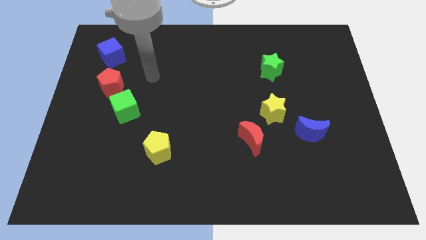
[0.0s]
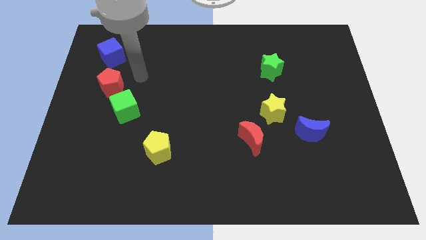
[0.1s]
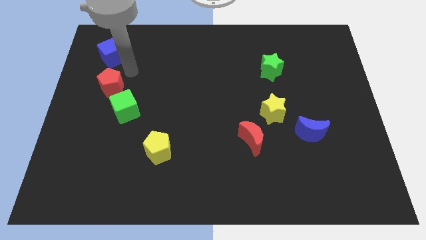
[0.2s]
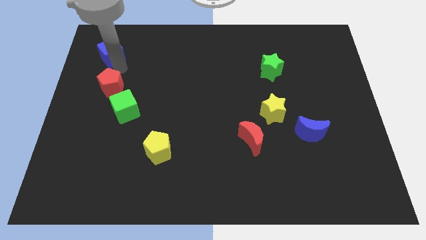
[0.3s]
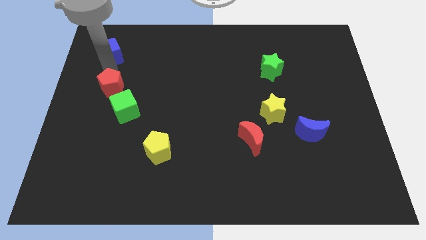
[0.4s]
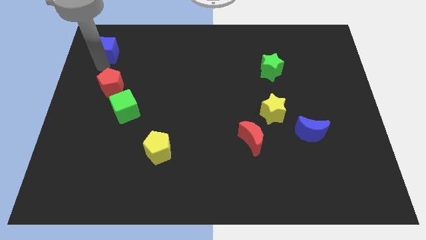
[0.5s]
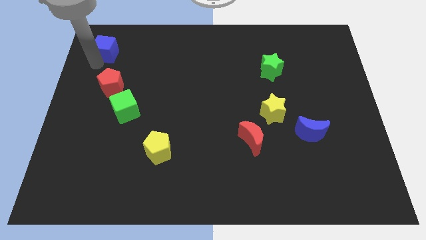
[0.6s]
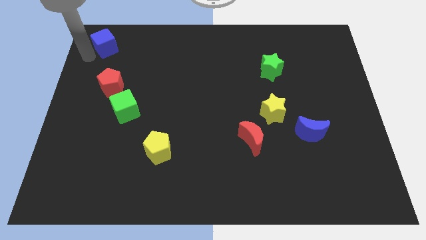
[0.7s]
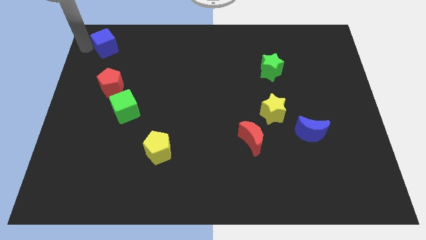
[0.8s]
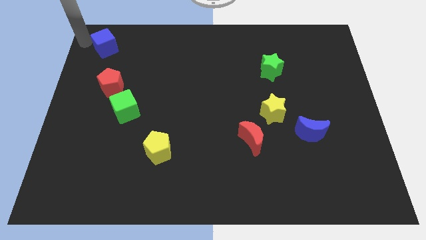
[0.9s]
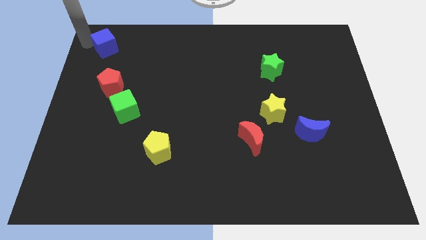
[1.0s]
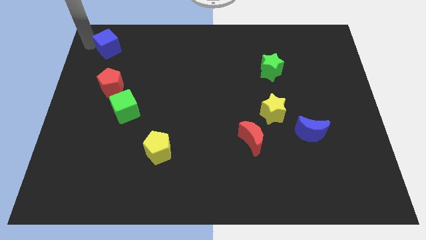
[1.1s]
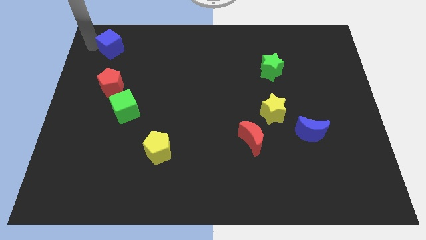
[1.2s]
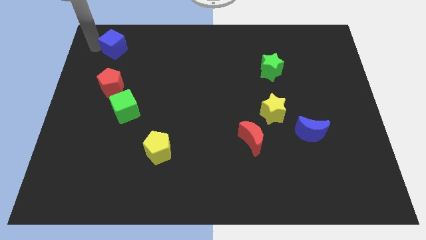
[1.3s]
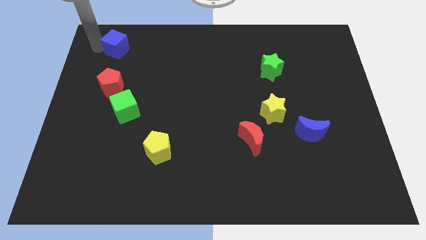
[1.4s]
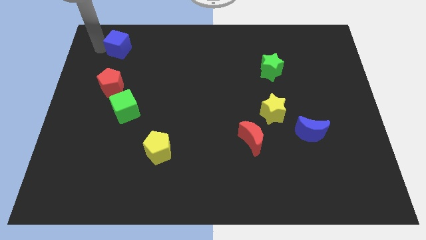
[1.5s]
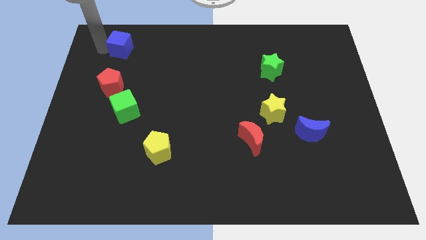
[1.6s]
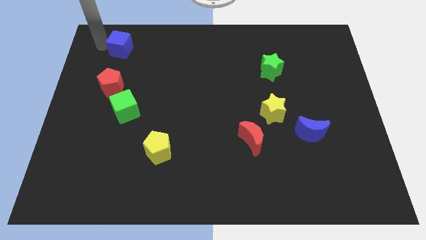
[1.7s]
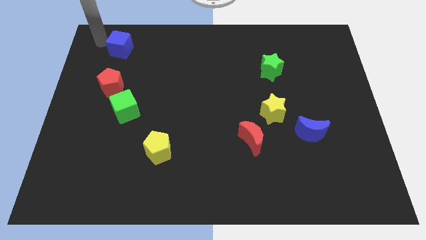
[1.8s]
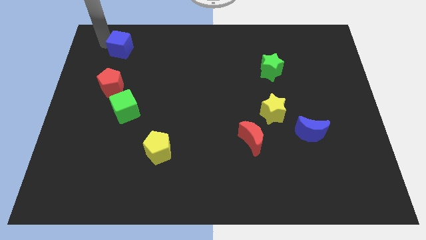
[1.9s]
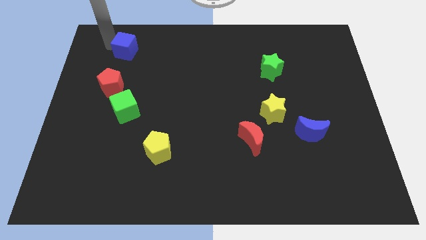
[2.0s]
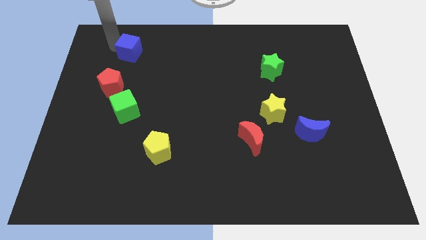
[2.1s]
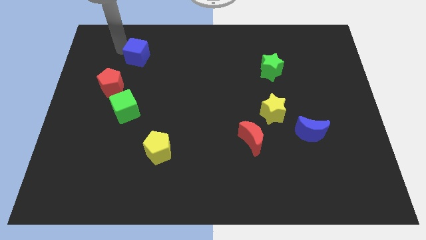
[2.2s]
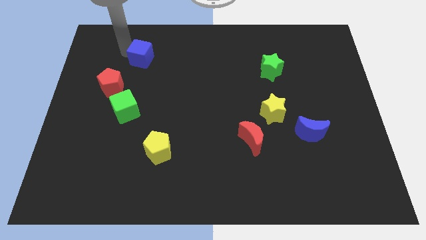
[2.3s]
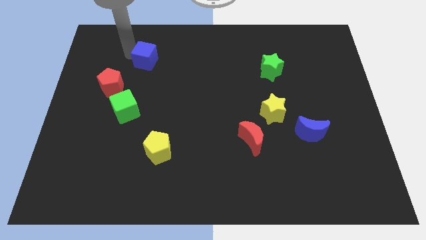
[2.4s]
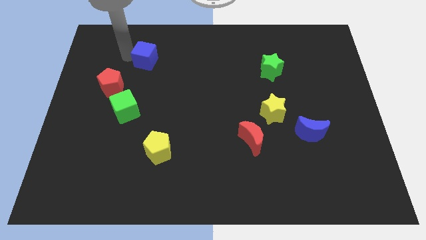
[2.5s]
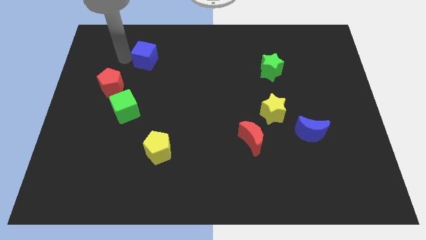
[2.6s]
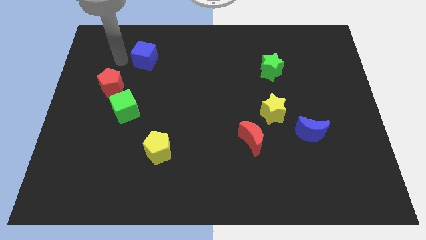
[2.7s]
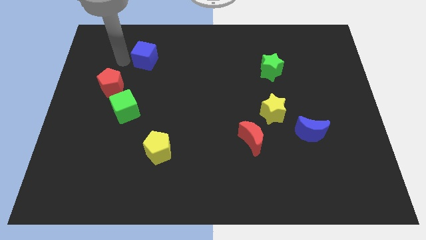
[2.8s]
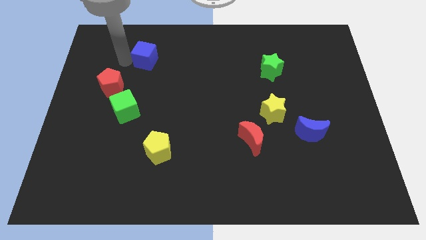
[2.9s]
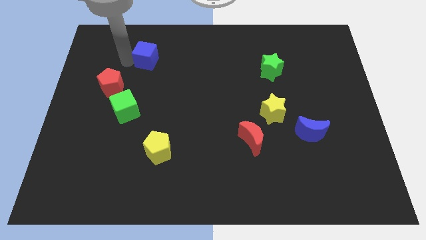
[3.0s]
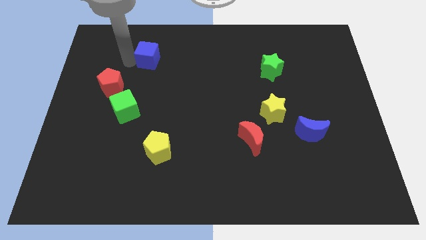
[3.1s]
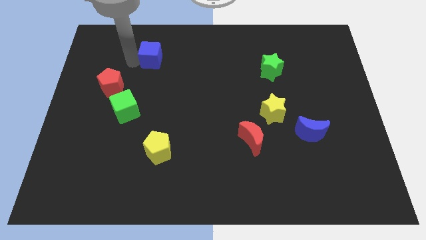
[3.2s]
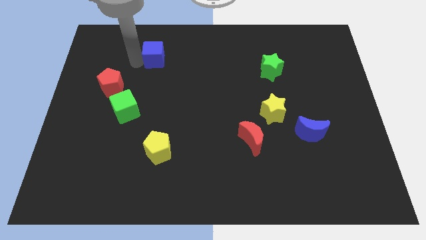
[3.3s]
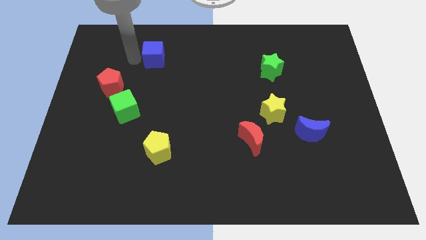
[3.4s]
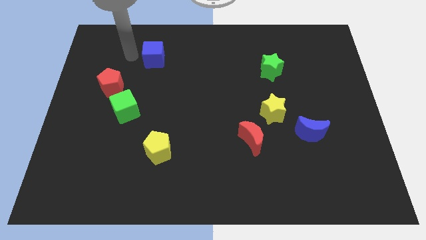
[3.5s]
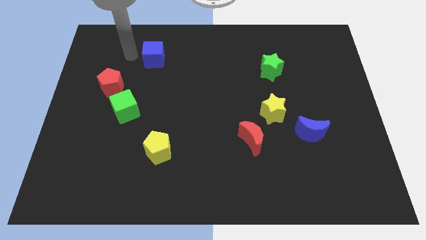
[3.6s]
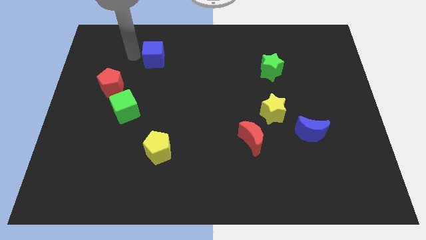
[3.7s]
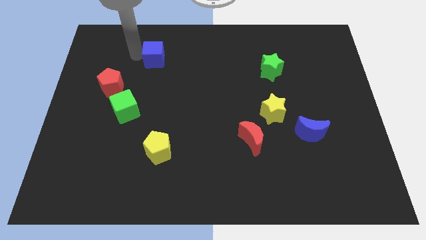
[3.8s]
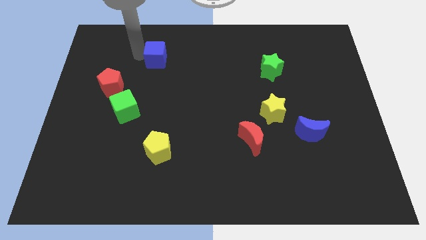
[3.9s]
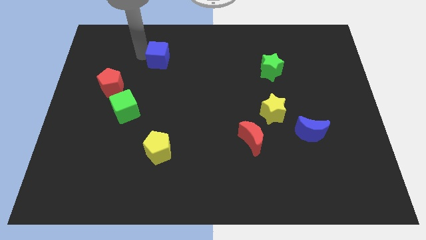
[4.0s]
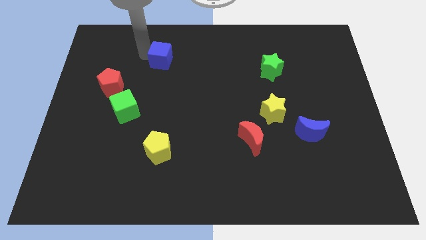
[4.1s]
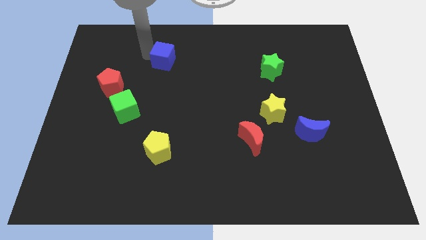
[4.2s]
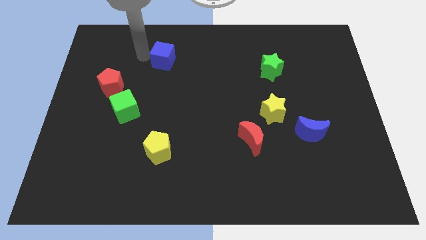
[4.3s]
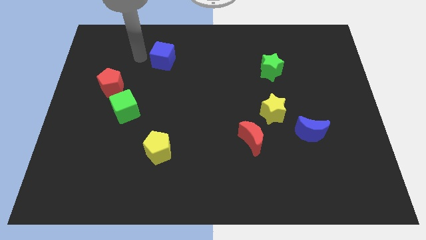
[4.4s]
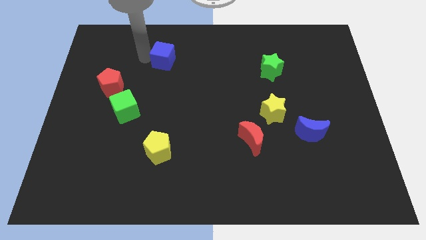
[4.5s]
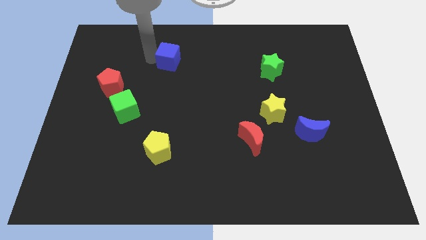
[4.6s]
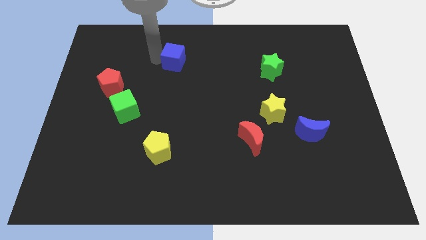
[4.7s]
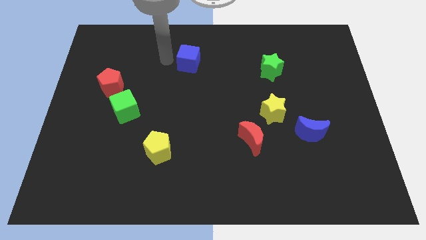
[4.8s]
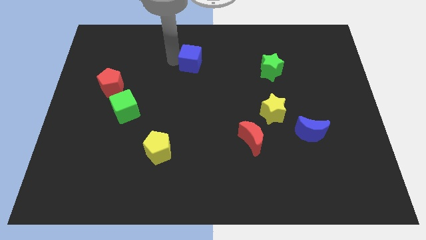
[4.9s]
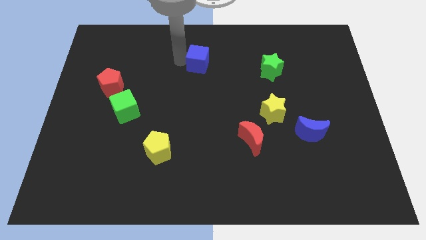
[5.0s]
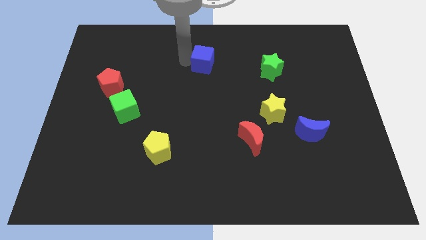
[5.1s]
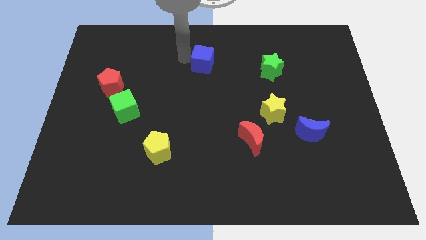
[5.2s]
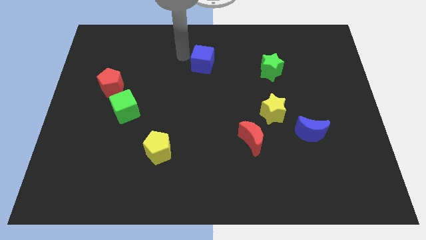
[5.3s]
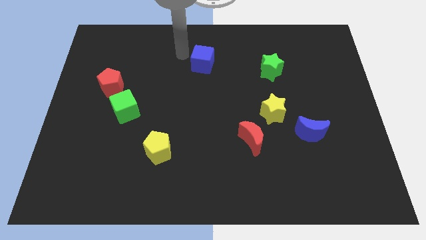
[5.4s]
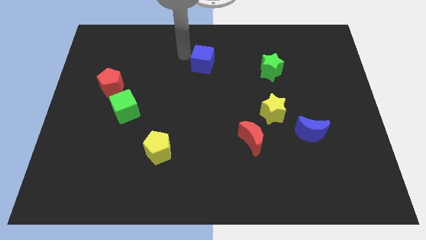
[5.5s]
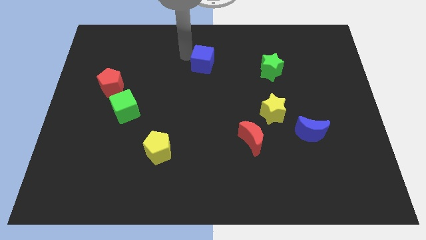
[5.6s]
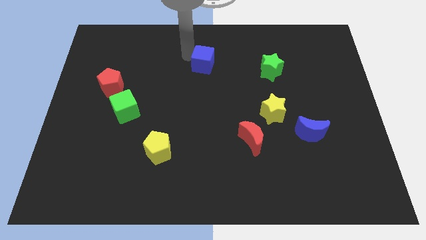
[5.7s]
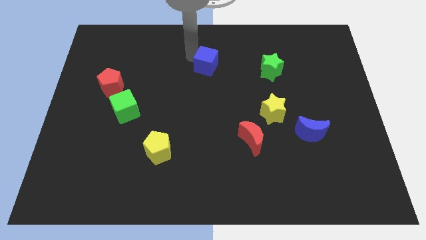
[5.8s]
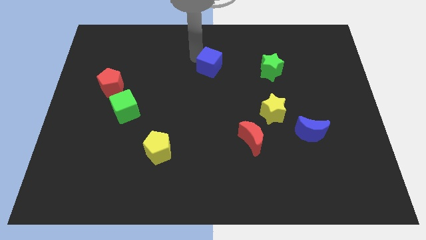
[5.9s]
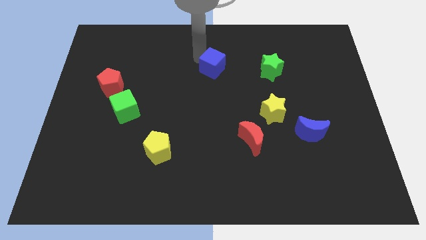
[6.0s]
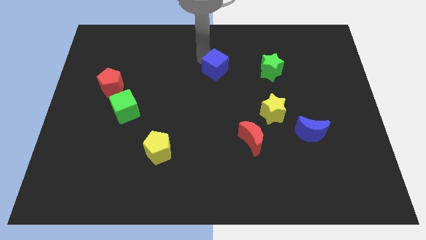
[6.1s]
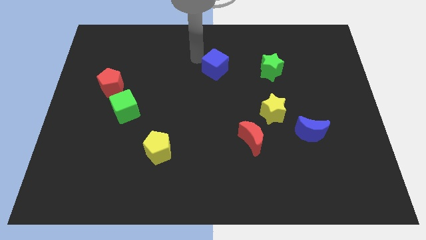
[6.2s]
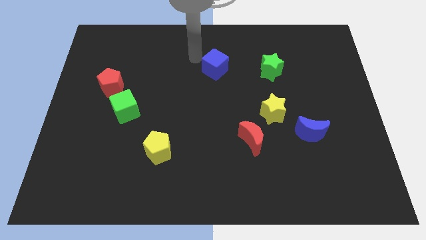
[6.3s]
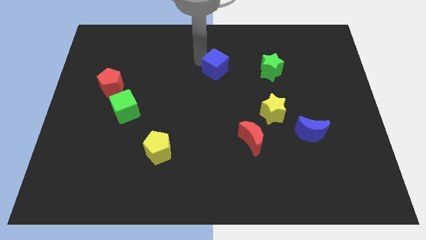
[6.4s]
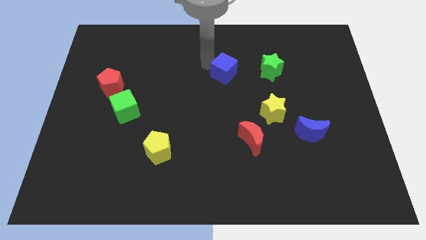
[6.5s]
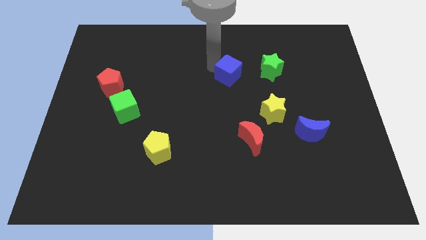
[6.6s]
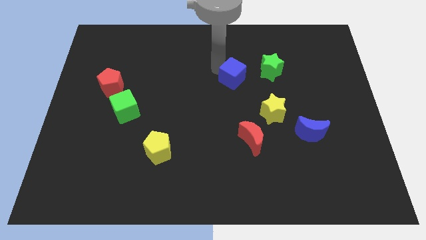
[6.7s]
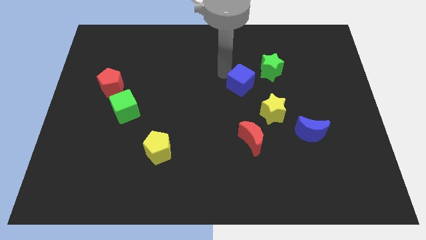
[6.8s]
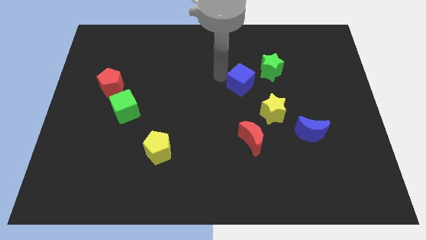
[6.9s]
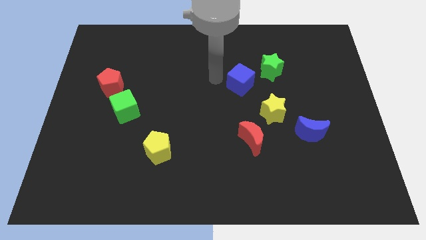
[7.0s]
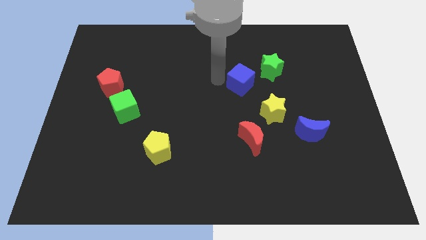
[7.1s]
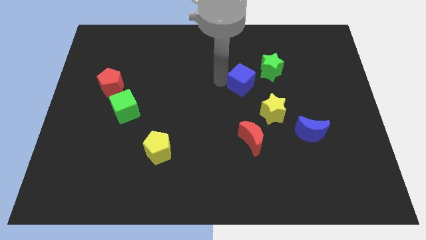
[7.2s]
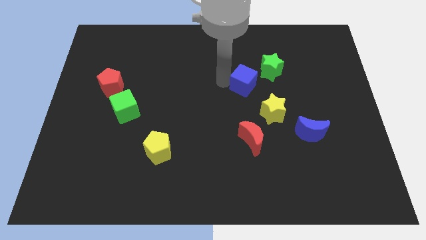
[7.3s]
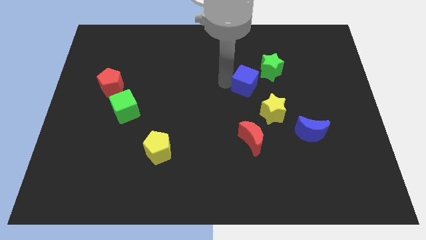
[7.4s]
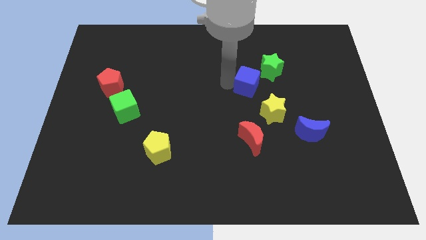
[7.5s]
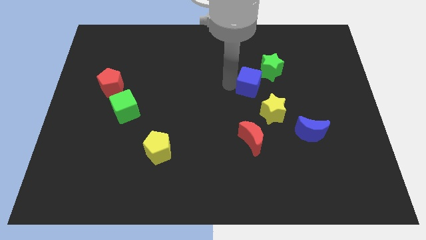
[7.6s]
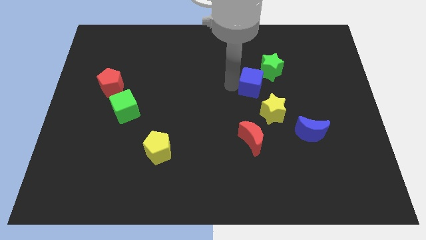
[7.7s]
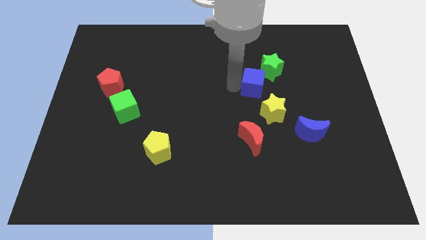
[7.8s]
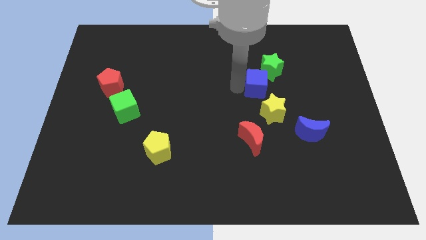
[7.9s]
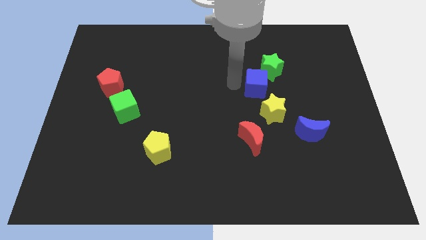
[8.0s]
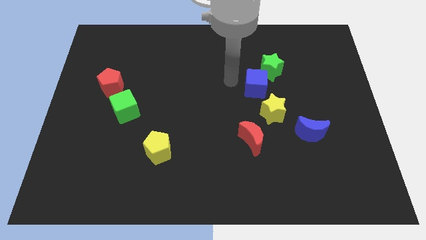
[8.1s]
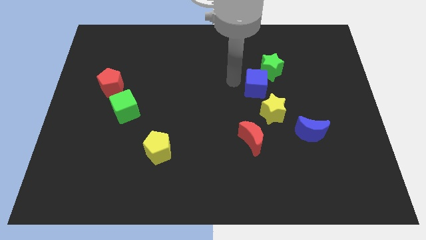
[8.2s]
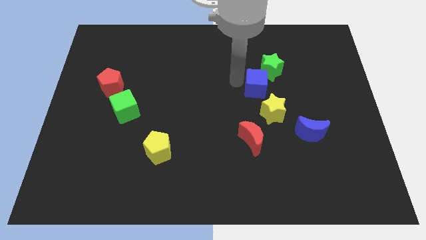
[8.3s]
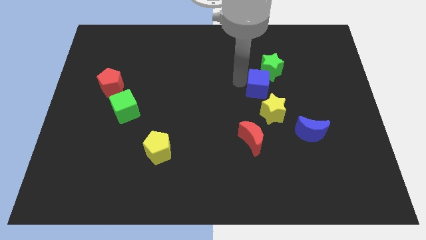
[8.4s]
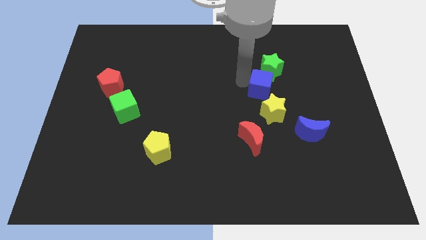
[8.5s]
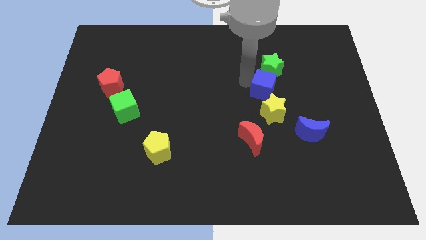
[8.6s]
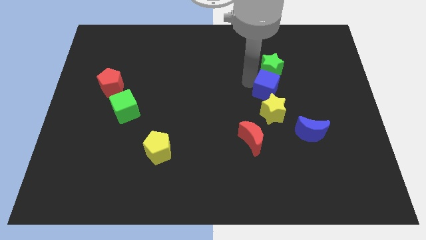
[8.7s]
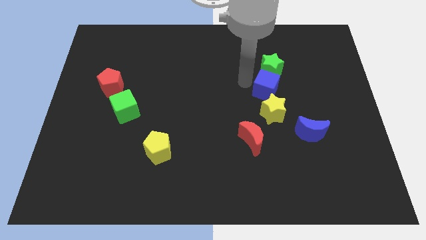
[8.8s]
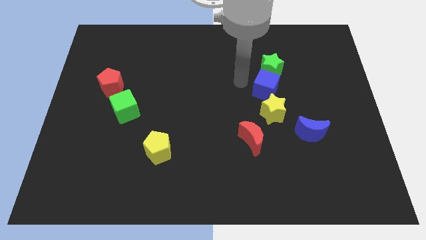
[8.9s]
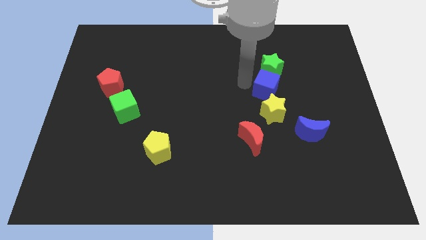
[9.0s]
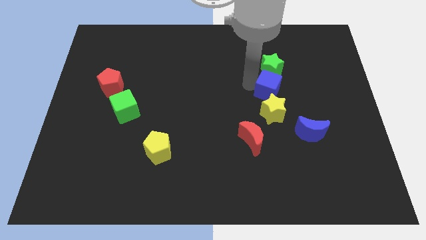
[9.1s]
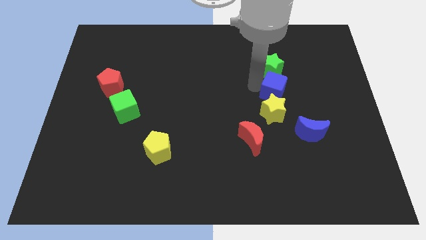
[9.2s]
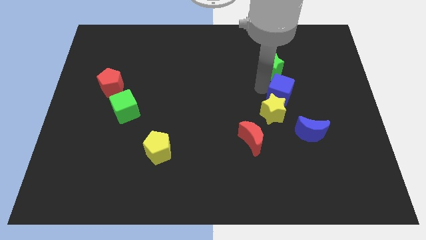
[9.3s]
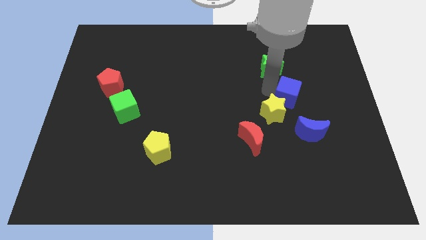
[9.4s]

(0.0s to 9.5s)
push the blue cube to the top side of the blue moon
